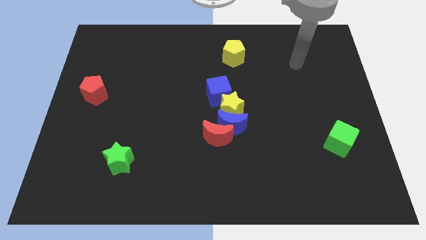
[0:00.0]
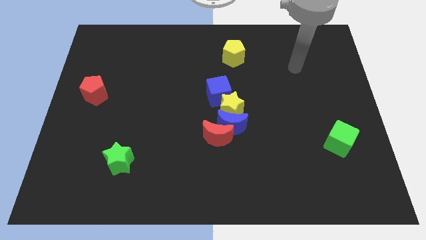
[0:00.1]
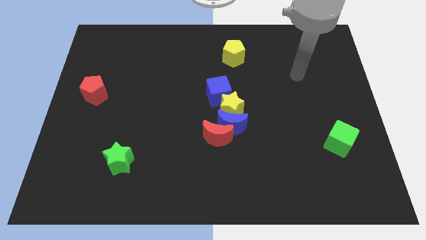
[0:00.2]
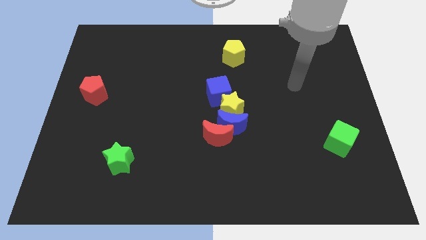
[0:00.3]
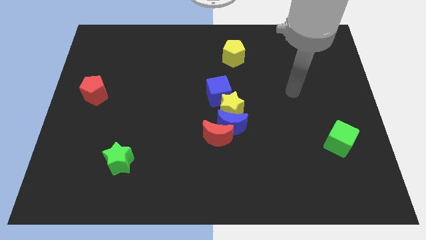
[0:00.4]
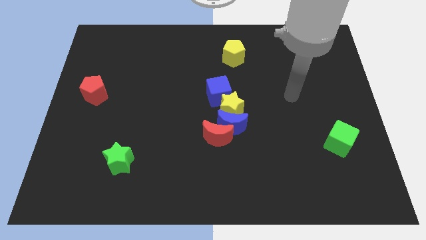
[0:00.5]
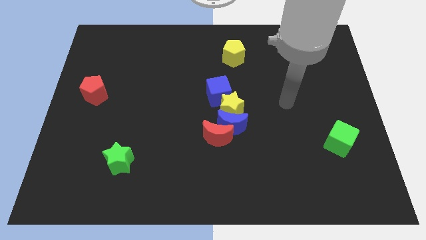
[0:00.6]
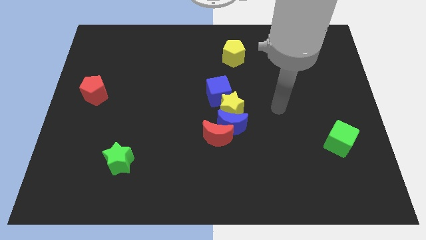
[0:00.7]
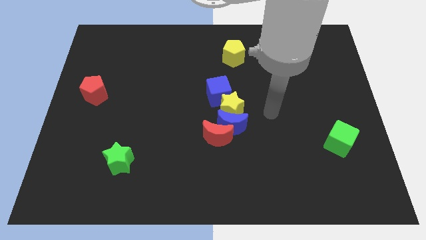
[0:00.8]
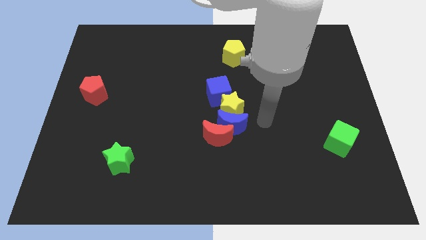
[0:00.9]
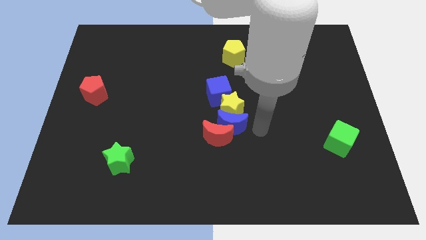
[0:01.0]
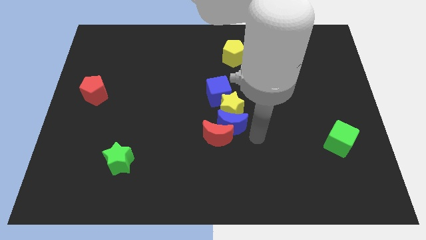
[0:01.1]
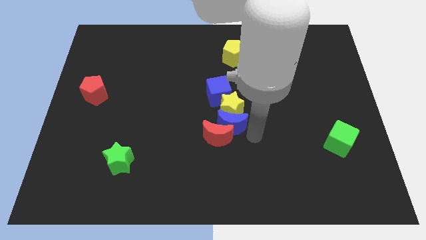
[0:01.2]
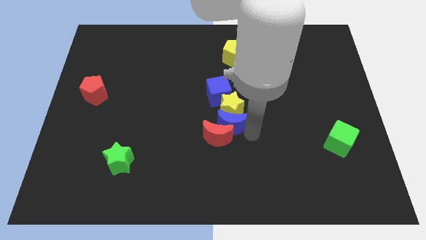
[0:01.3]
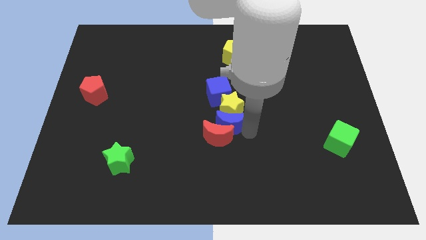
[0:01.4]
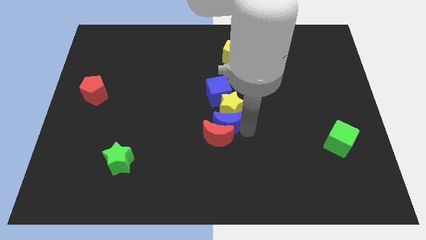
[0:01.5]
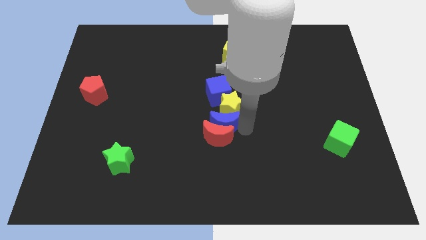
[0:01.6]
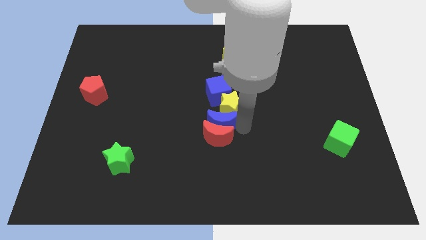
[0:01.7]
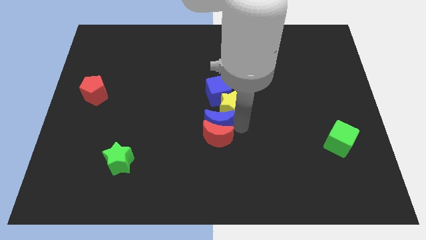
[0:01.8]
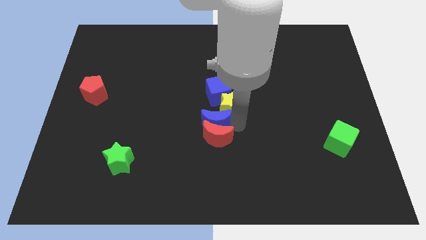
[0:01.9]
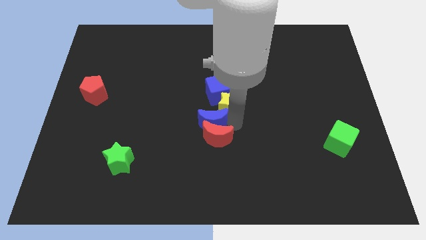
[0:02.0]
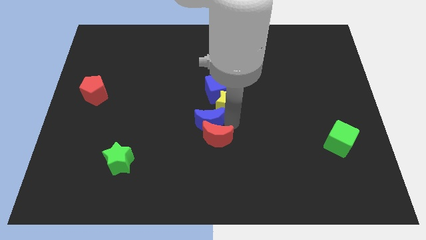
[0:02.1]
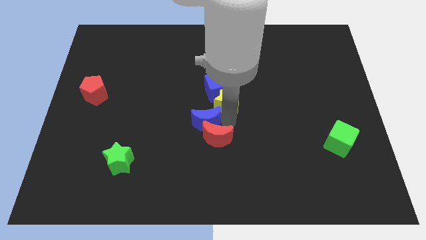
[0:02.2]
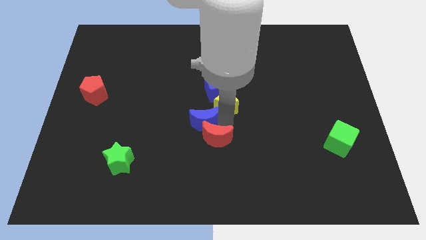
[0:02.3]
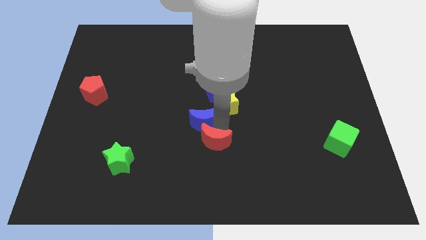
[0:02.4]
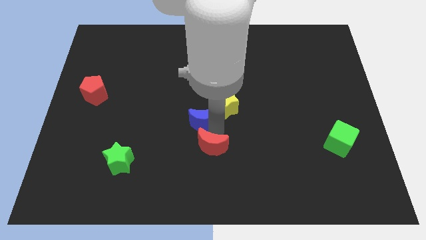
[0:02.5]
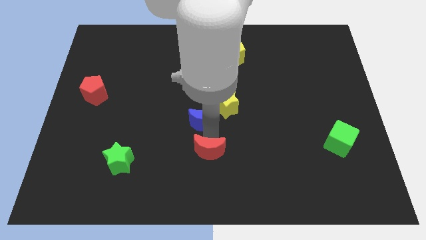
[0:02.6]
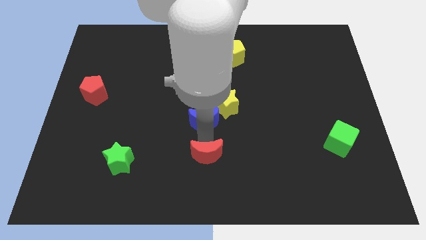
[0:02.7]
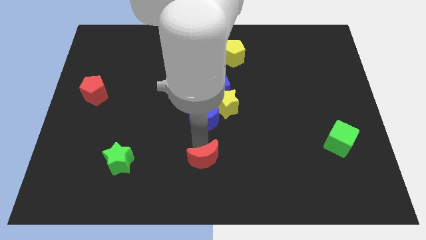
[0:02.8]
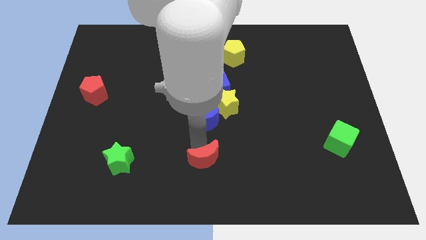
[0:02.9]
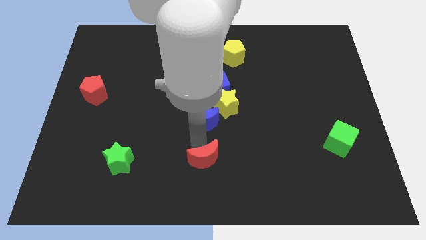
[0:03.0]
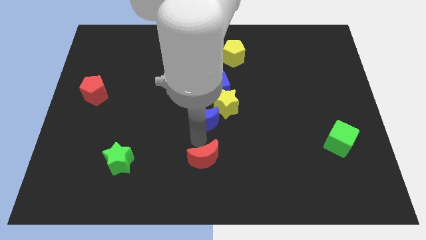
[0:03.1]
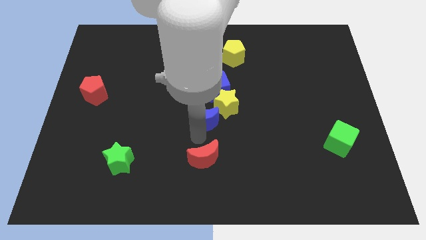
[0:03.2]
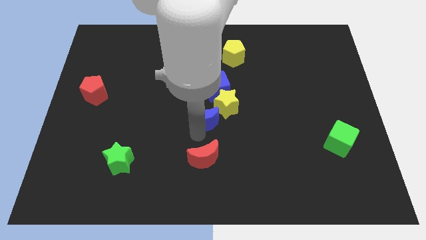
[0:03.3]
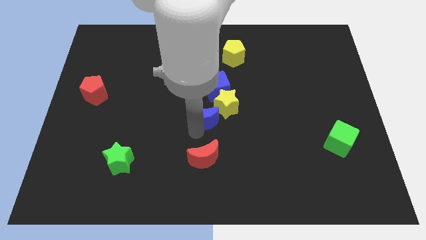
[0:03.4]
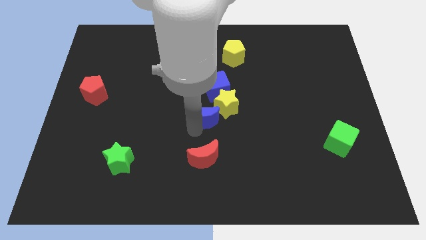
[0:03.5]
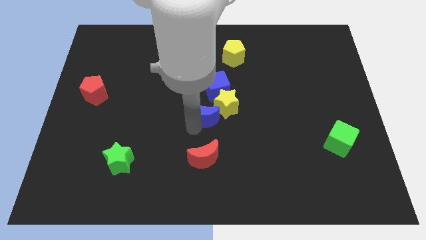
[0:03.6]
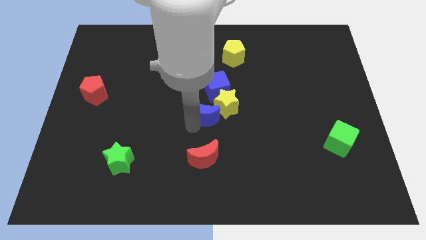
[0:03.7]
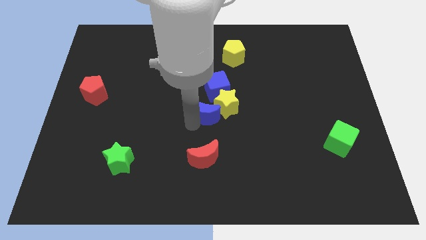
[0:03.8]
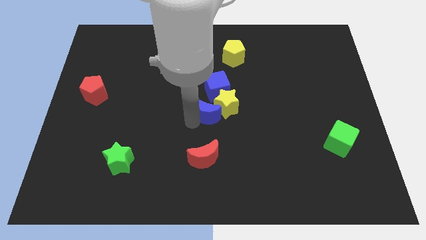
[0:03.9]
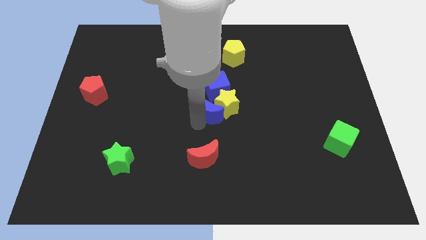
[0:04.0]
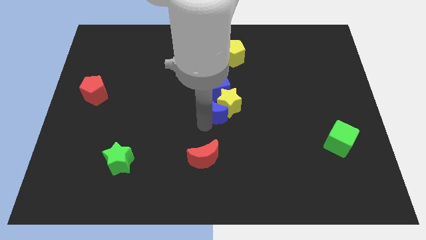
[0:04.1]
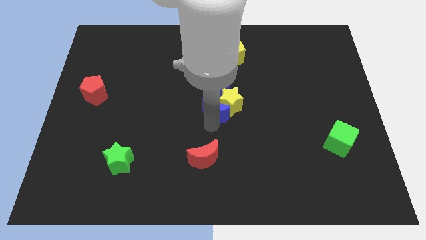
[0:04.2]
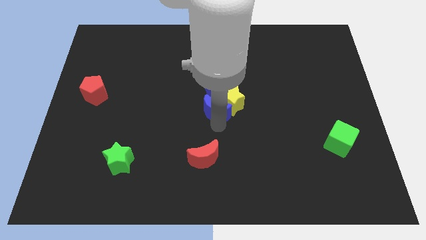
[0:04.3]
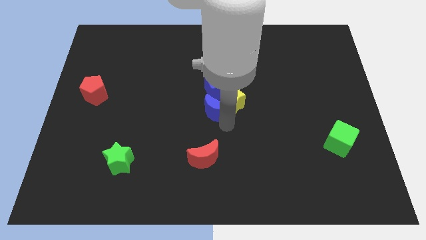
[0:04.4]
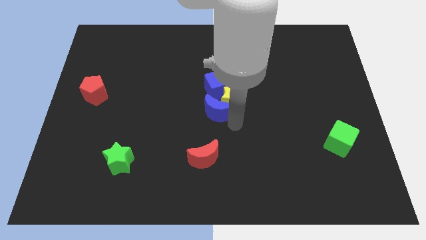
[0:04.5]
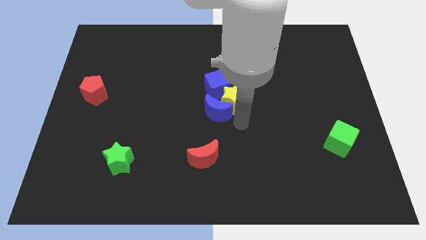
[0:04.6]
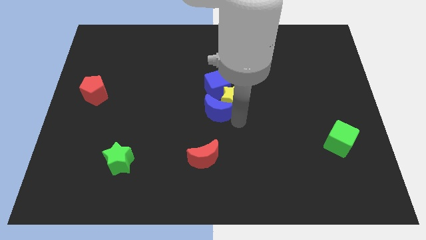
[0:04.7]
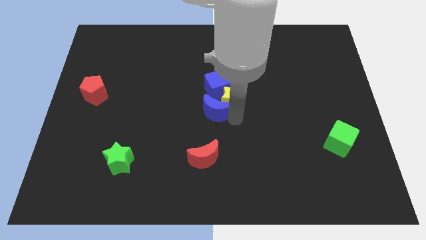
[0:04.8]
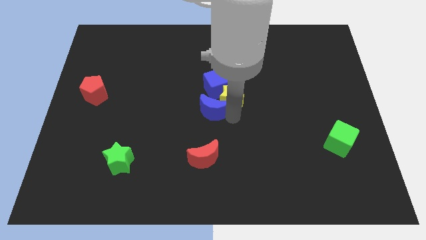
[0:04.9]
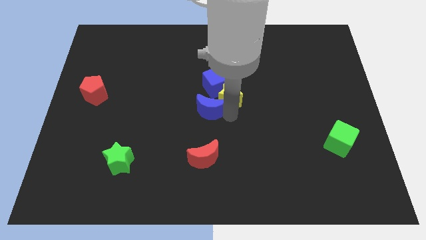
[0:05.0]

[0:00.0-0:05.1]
slightly move the blue moon diagonally up and left

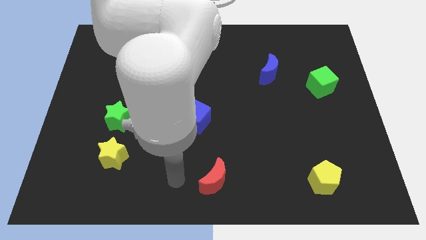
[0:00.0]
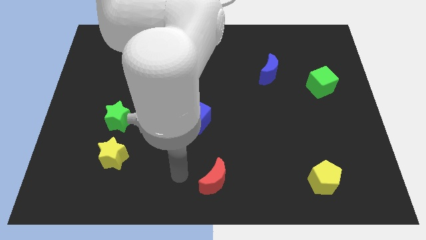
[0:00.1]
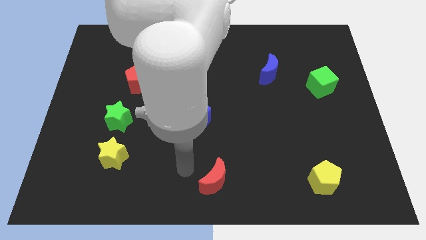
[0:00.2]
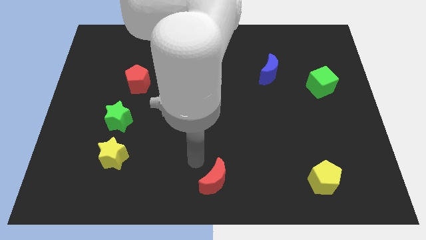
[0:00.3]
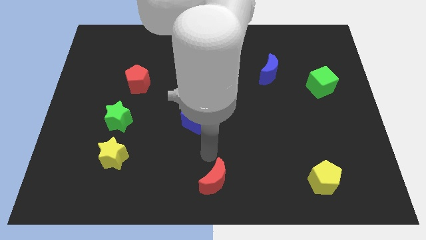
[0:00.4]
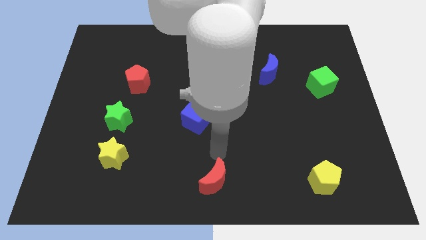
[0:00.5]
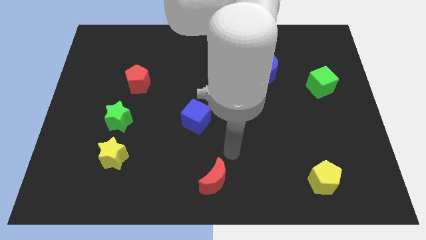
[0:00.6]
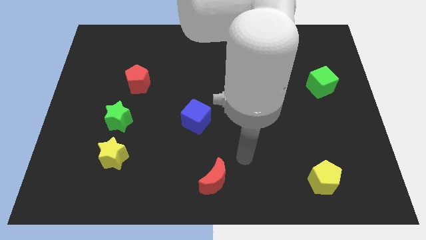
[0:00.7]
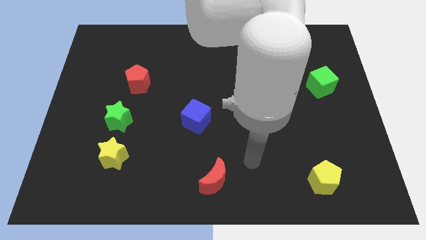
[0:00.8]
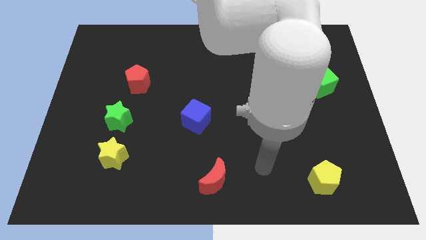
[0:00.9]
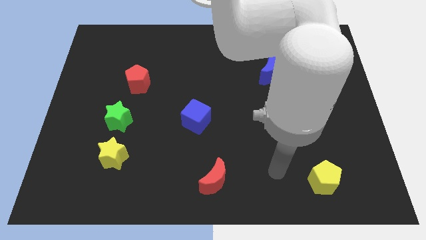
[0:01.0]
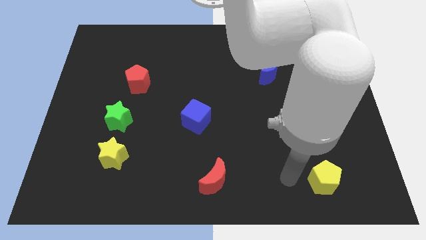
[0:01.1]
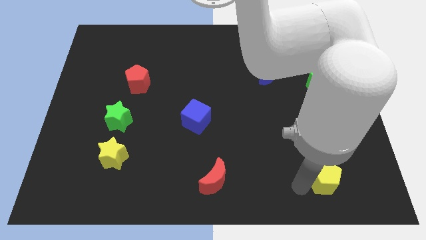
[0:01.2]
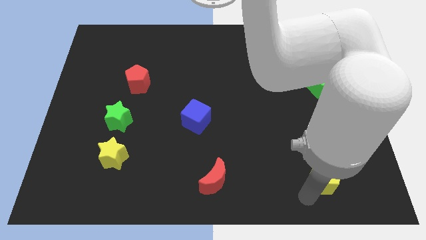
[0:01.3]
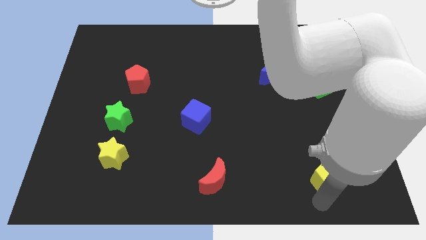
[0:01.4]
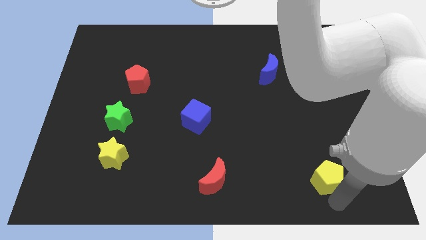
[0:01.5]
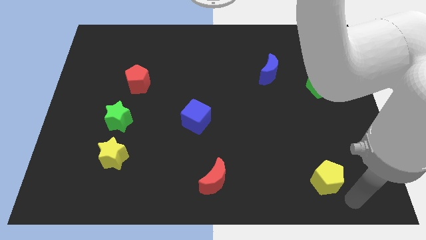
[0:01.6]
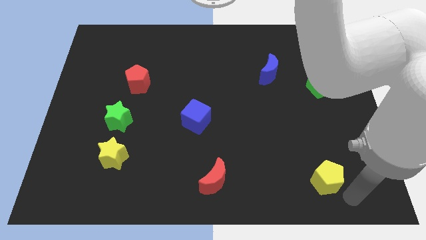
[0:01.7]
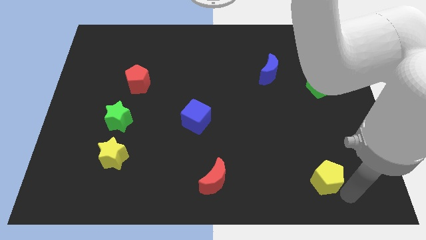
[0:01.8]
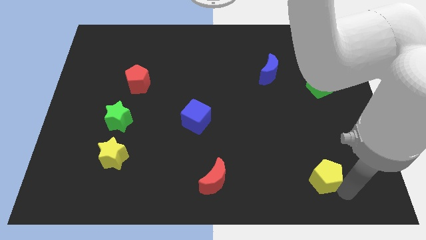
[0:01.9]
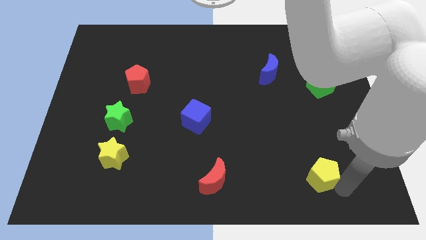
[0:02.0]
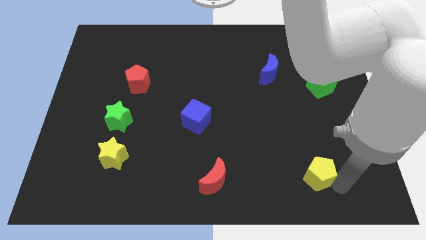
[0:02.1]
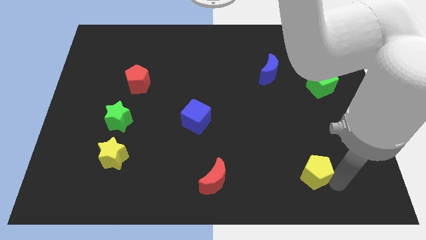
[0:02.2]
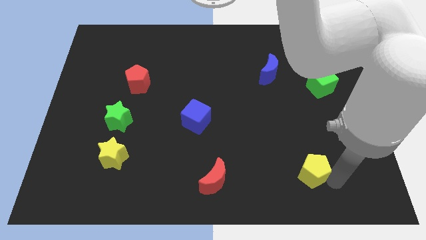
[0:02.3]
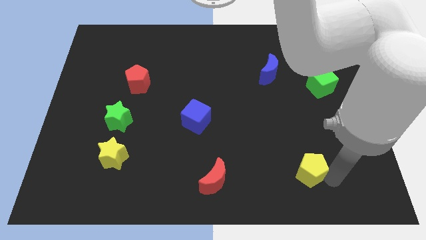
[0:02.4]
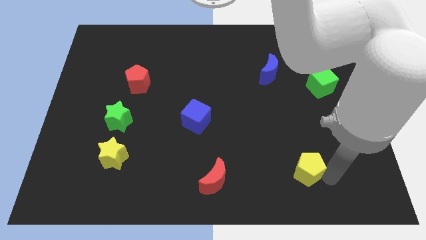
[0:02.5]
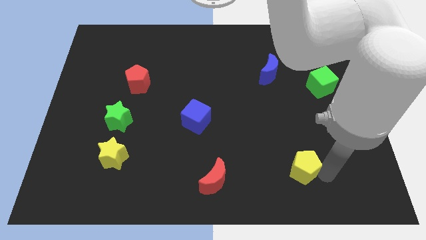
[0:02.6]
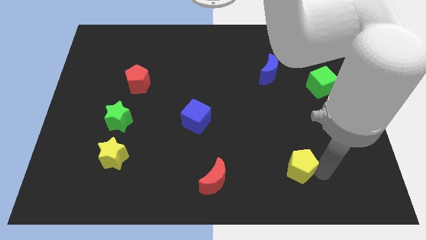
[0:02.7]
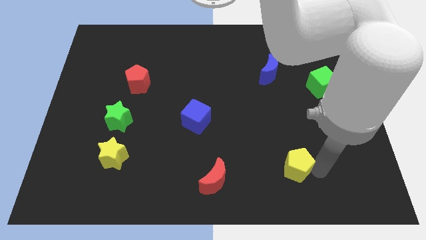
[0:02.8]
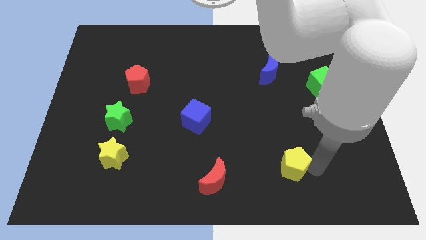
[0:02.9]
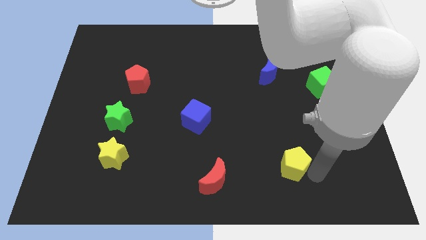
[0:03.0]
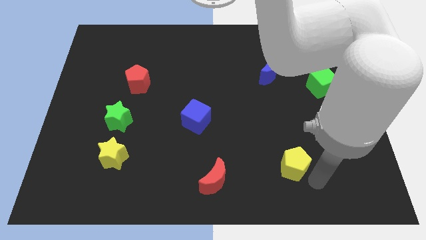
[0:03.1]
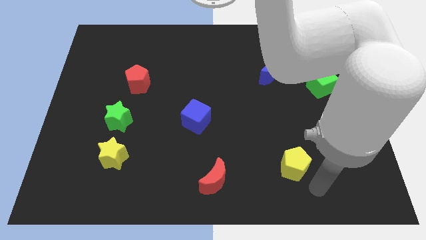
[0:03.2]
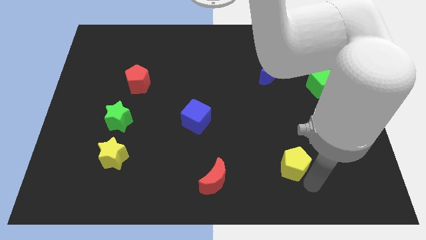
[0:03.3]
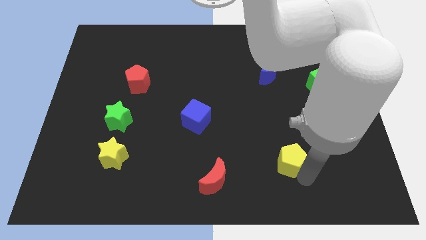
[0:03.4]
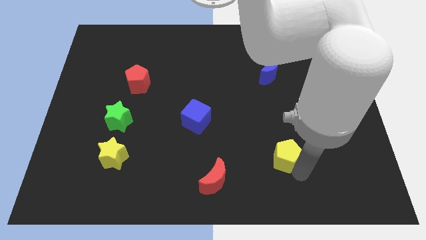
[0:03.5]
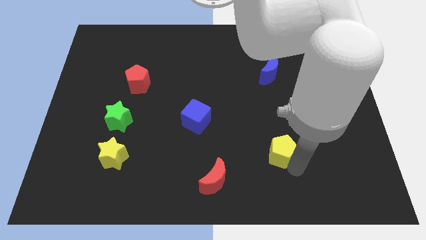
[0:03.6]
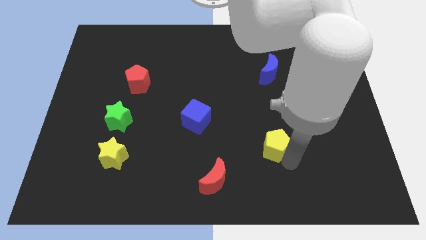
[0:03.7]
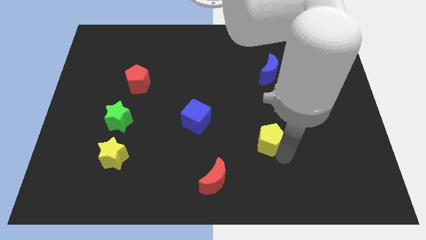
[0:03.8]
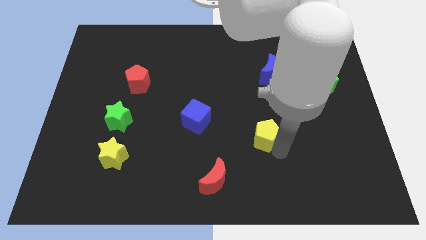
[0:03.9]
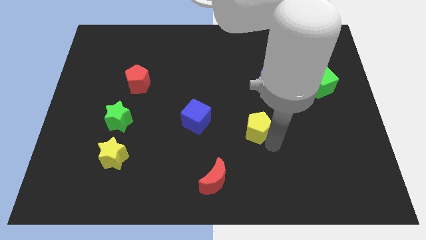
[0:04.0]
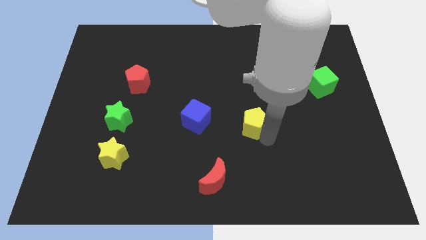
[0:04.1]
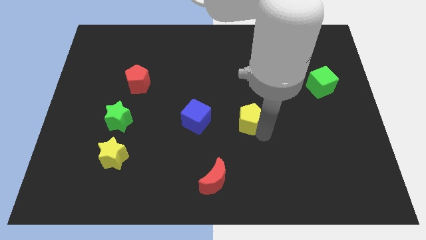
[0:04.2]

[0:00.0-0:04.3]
slide the yellow pentagon diagonally upwards and left
